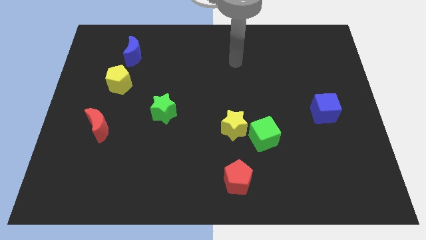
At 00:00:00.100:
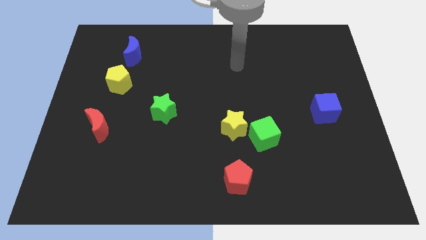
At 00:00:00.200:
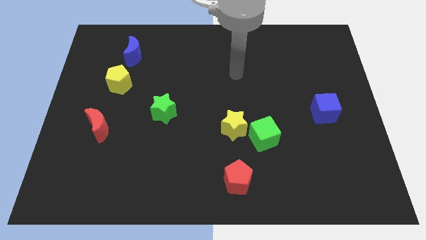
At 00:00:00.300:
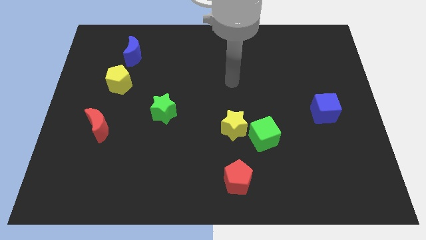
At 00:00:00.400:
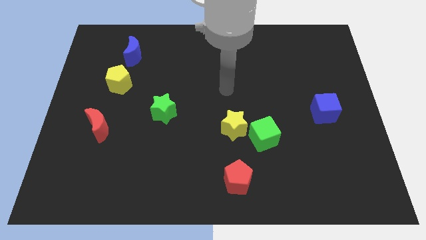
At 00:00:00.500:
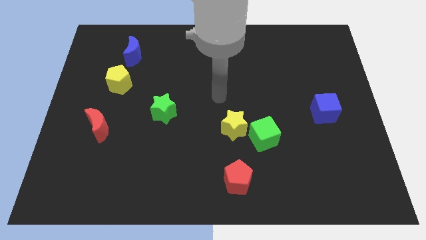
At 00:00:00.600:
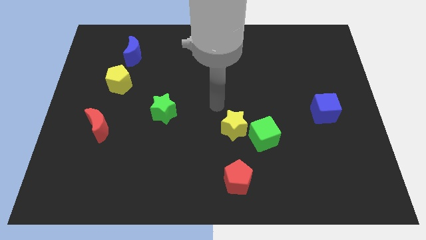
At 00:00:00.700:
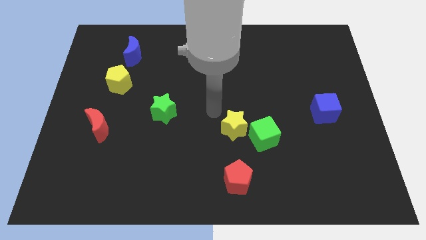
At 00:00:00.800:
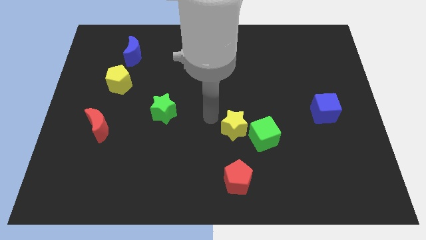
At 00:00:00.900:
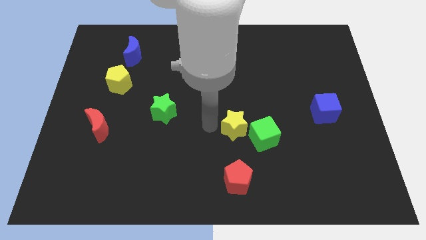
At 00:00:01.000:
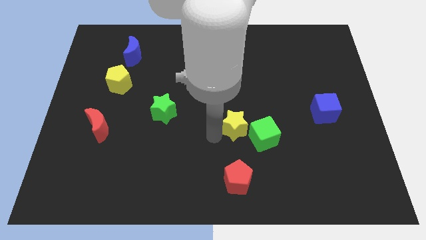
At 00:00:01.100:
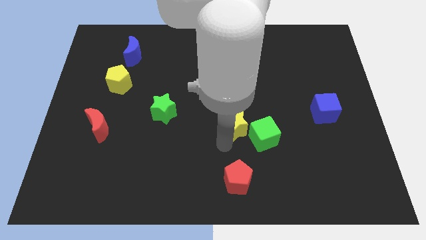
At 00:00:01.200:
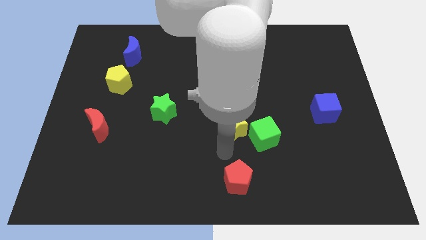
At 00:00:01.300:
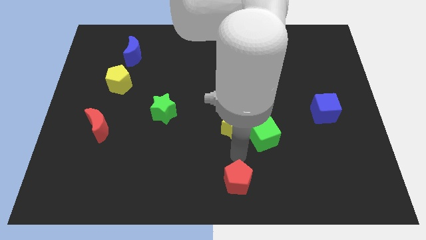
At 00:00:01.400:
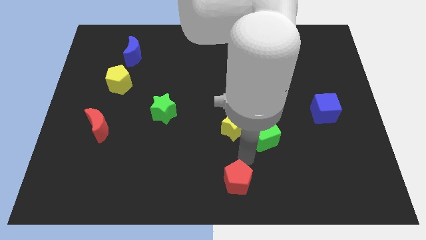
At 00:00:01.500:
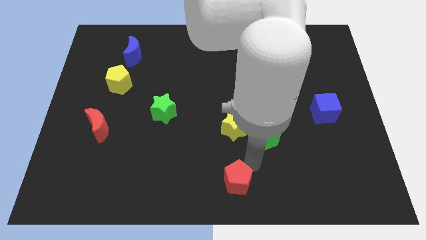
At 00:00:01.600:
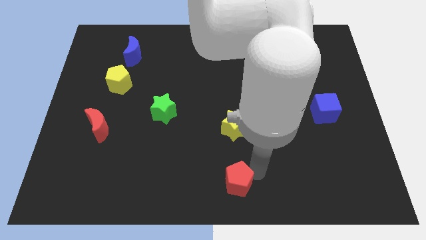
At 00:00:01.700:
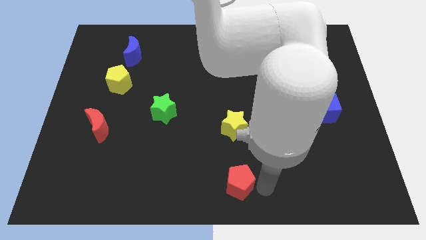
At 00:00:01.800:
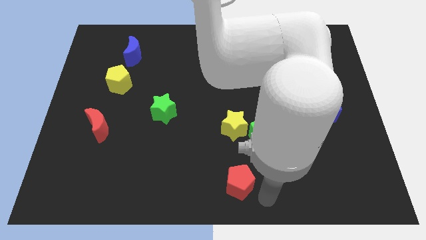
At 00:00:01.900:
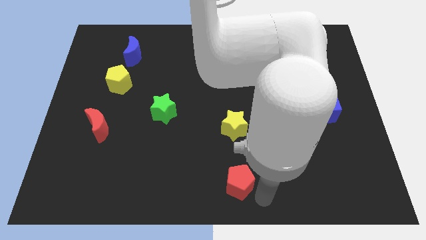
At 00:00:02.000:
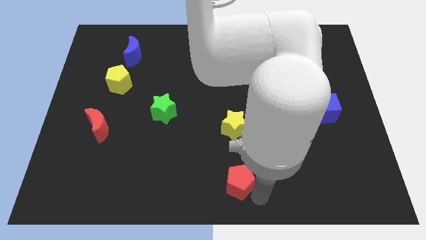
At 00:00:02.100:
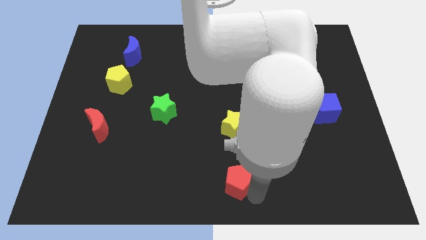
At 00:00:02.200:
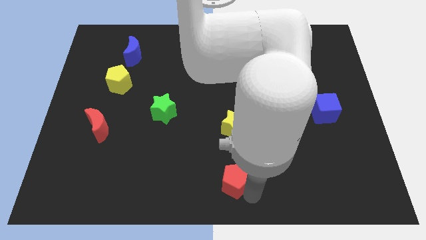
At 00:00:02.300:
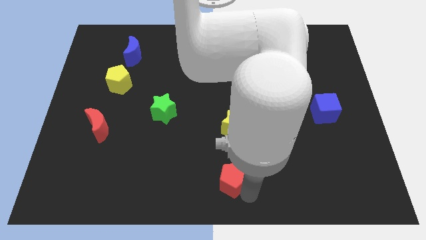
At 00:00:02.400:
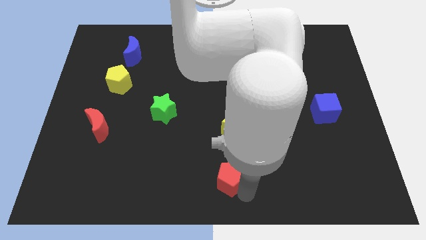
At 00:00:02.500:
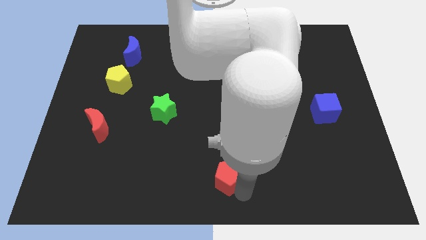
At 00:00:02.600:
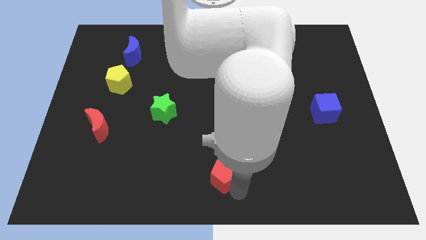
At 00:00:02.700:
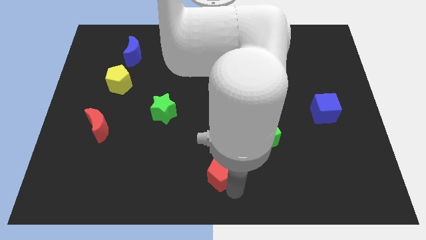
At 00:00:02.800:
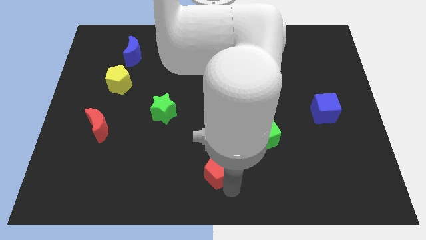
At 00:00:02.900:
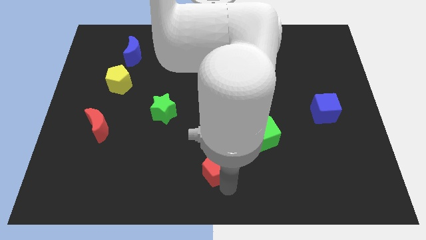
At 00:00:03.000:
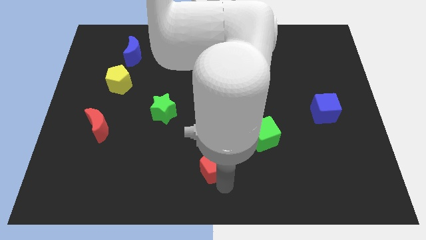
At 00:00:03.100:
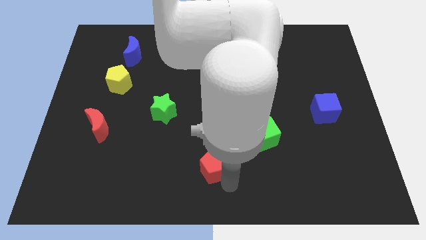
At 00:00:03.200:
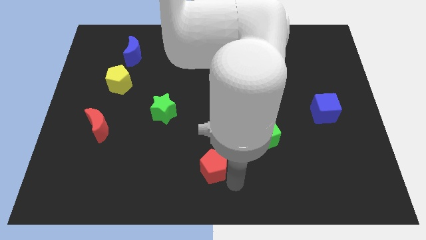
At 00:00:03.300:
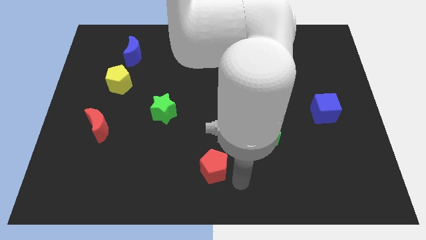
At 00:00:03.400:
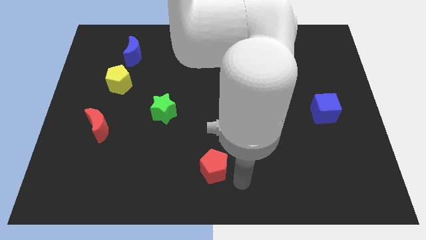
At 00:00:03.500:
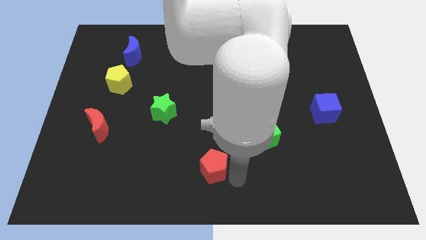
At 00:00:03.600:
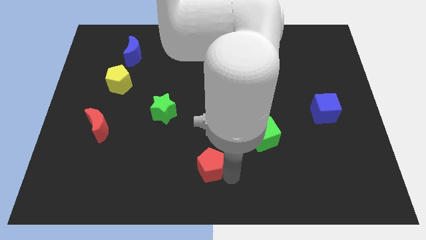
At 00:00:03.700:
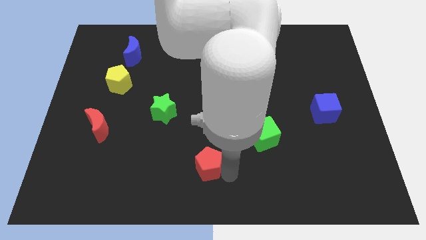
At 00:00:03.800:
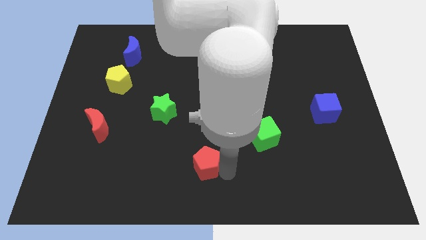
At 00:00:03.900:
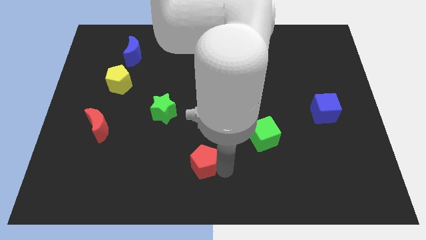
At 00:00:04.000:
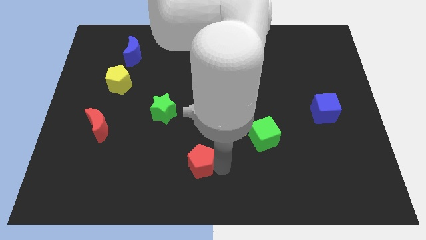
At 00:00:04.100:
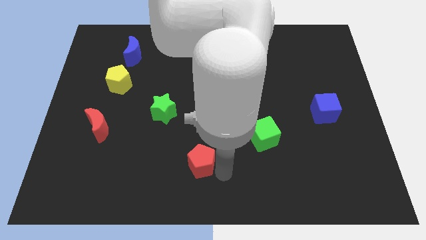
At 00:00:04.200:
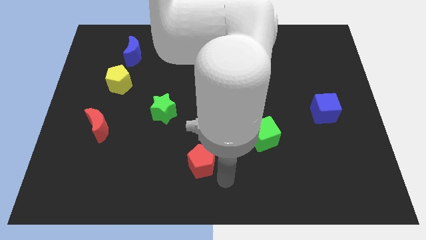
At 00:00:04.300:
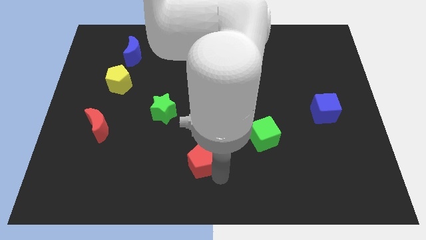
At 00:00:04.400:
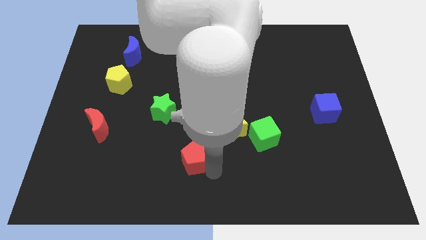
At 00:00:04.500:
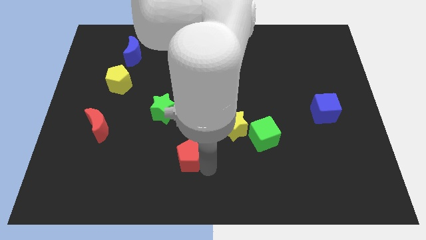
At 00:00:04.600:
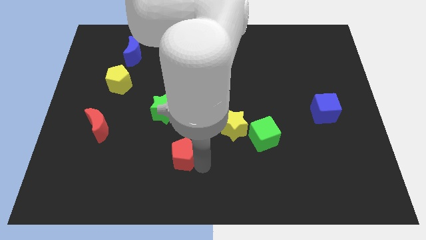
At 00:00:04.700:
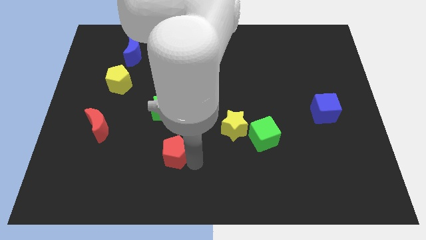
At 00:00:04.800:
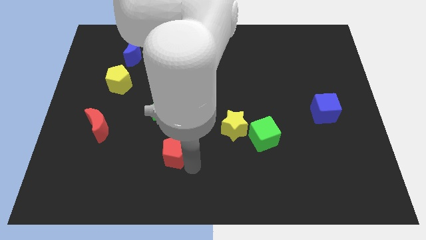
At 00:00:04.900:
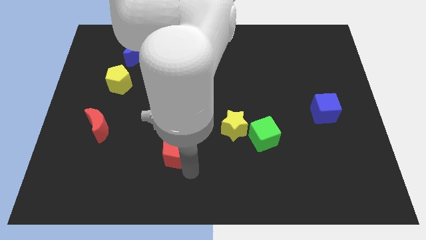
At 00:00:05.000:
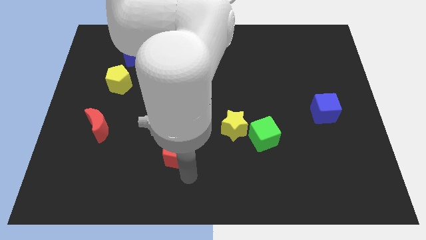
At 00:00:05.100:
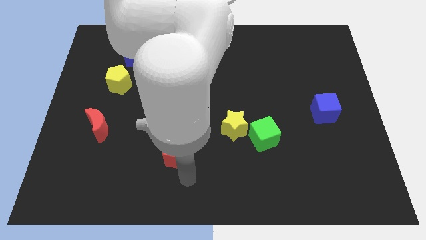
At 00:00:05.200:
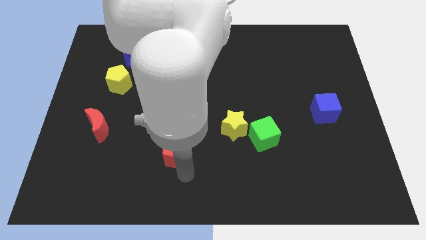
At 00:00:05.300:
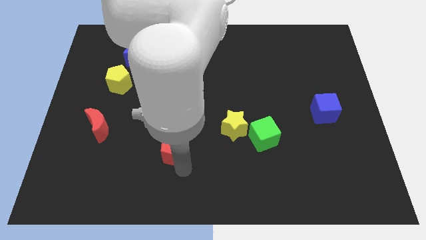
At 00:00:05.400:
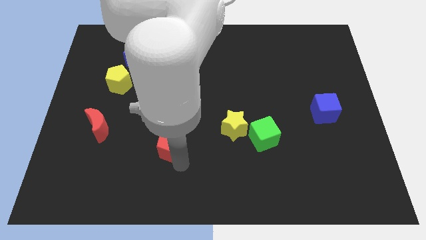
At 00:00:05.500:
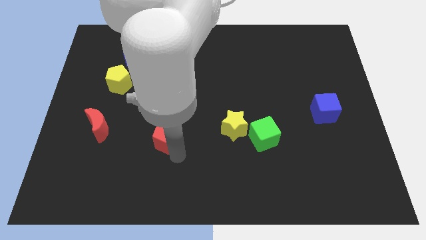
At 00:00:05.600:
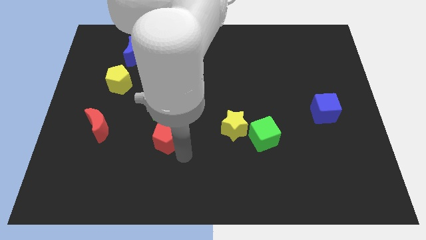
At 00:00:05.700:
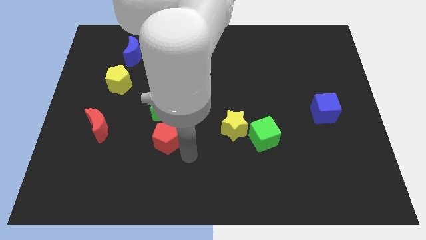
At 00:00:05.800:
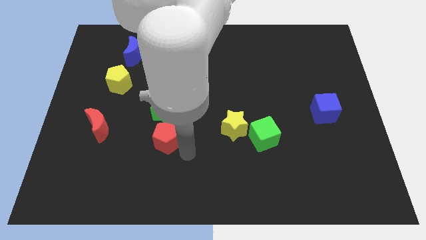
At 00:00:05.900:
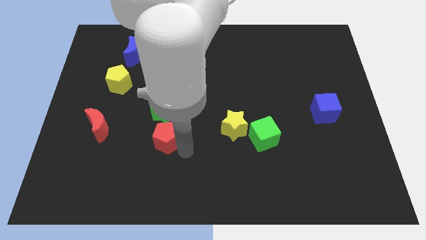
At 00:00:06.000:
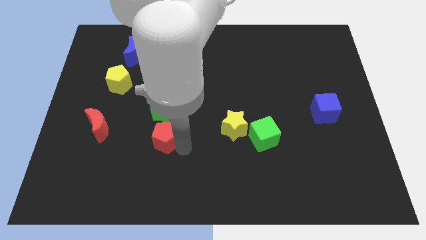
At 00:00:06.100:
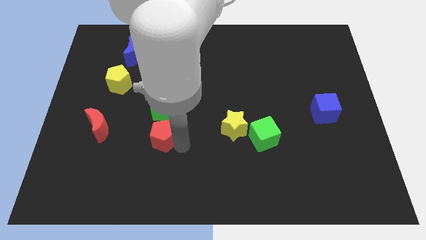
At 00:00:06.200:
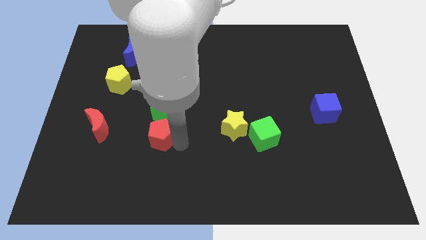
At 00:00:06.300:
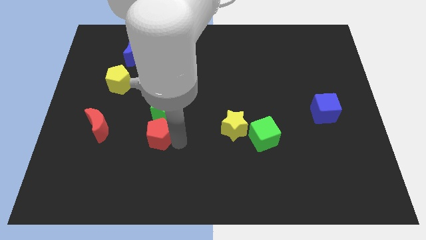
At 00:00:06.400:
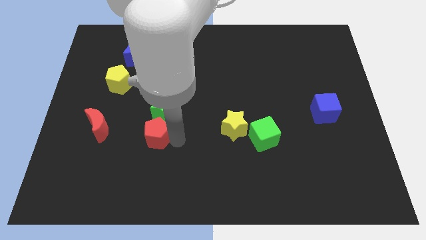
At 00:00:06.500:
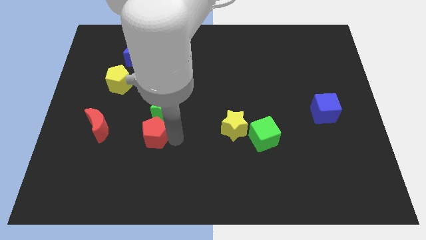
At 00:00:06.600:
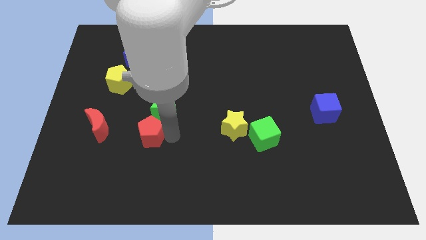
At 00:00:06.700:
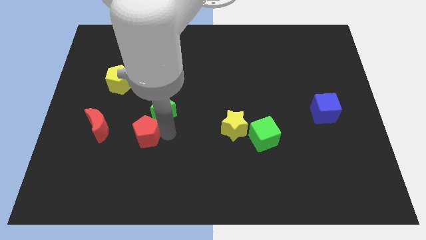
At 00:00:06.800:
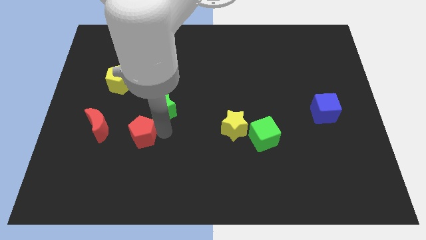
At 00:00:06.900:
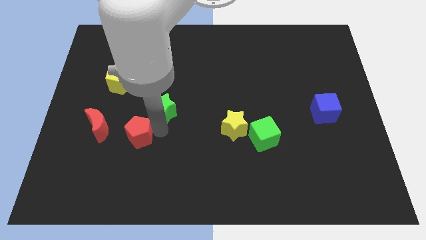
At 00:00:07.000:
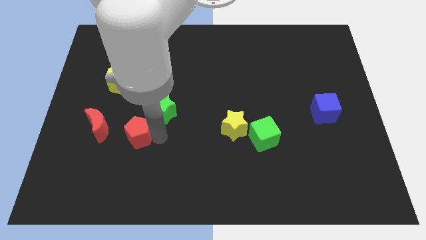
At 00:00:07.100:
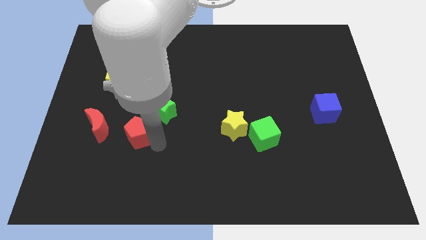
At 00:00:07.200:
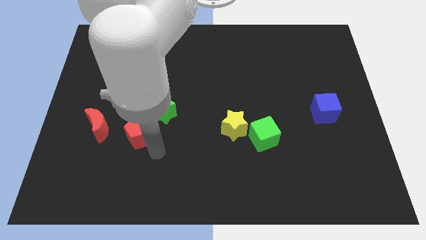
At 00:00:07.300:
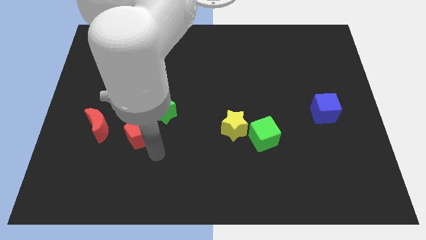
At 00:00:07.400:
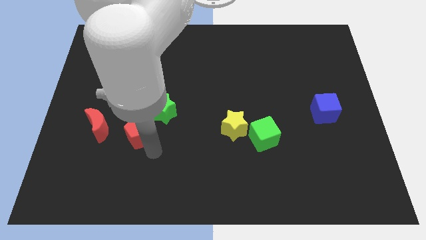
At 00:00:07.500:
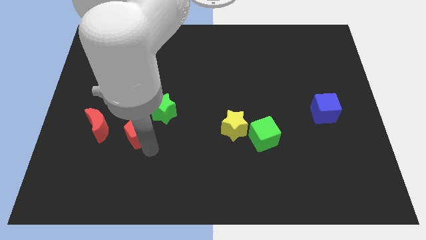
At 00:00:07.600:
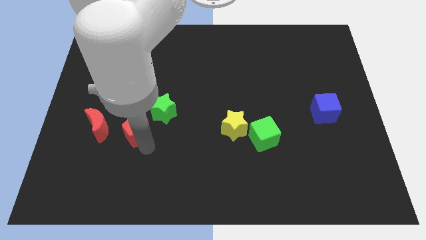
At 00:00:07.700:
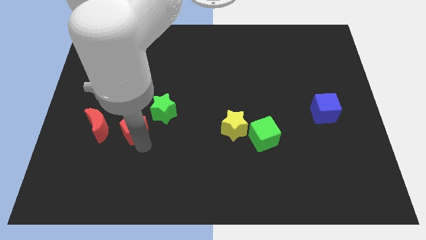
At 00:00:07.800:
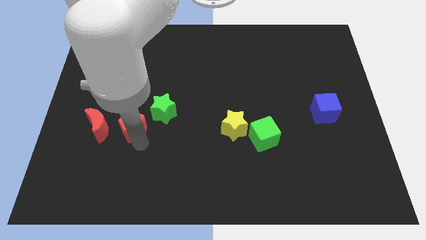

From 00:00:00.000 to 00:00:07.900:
move the red pentagon just left of the green star
